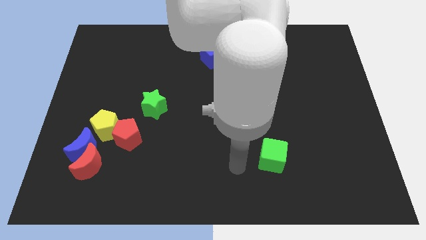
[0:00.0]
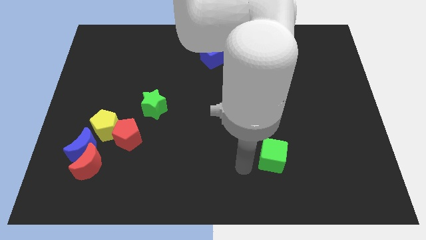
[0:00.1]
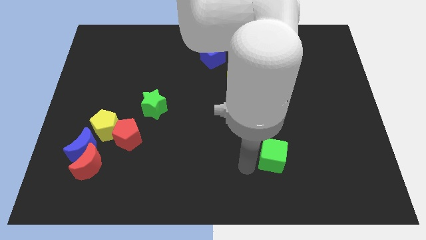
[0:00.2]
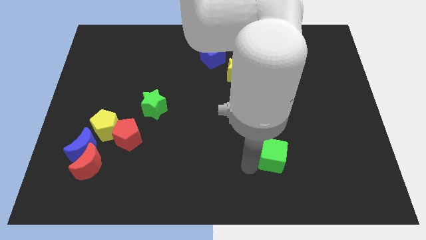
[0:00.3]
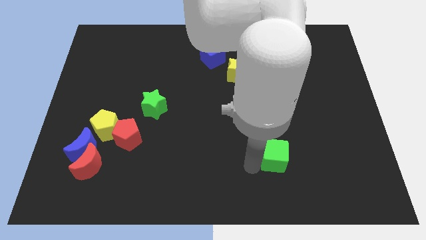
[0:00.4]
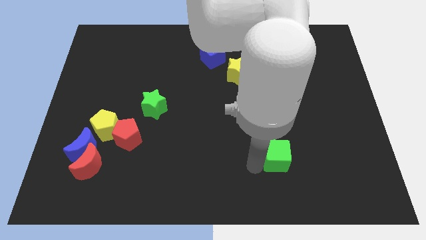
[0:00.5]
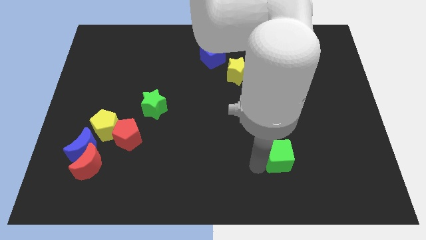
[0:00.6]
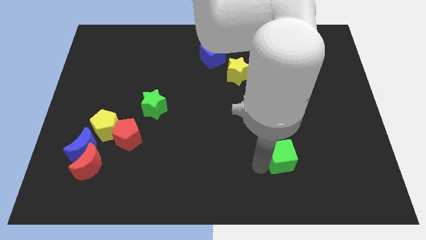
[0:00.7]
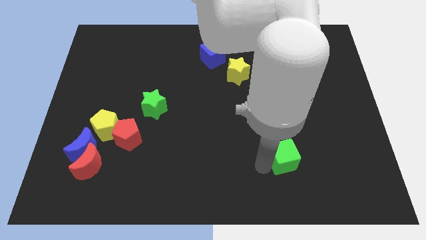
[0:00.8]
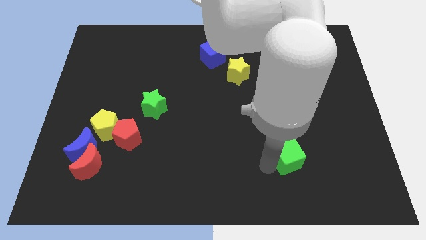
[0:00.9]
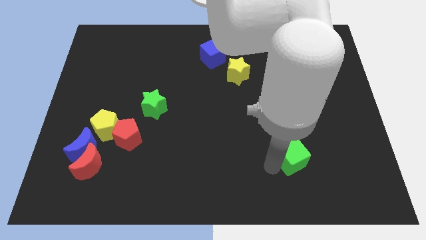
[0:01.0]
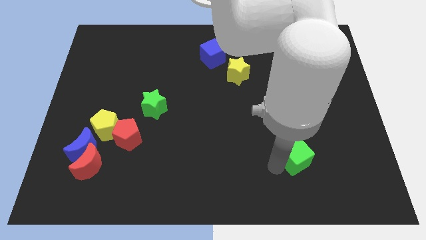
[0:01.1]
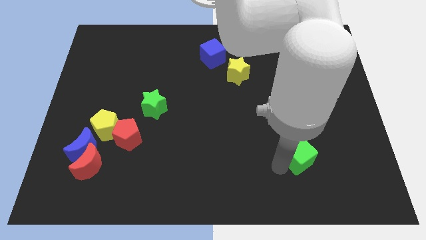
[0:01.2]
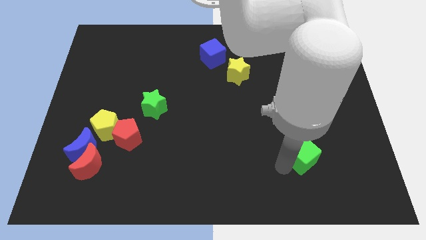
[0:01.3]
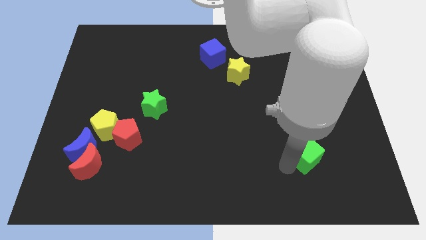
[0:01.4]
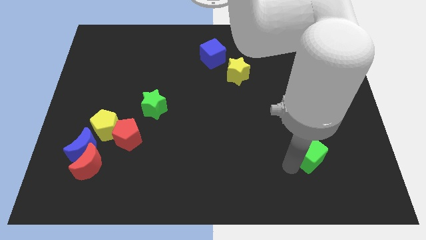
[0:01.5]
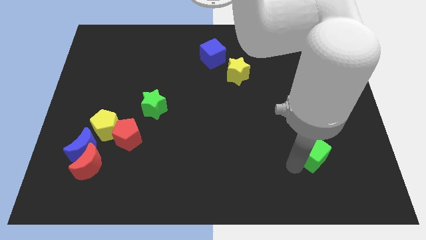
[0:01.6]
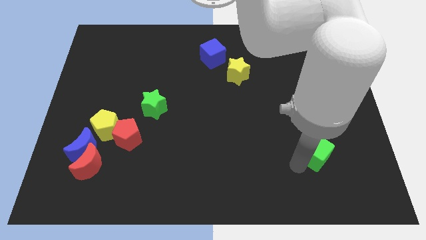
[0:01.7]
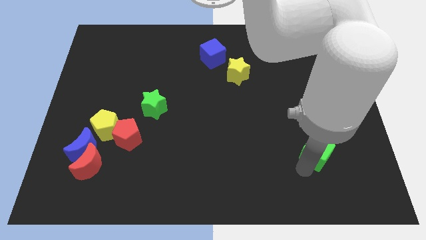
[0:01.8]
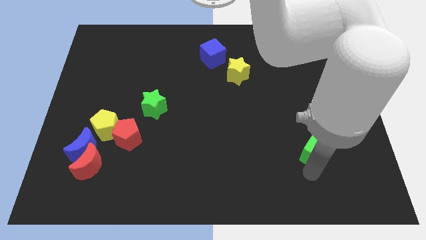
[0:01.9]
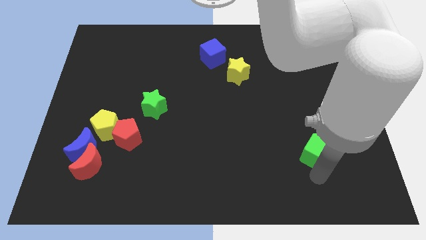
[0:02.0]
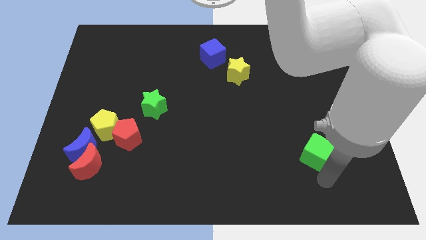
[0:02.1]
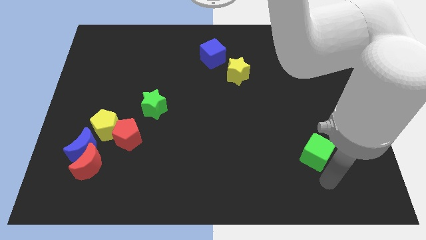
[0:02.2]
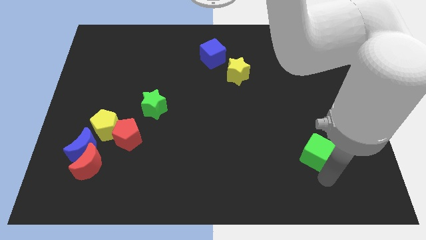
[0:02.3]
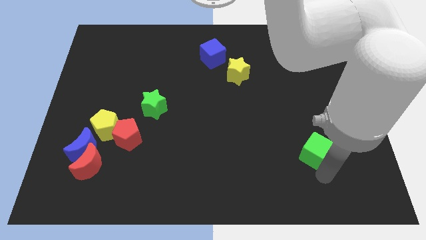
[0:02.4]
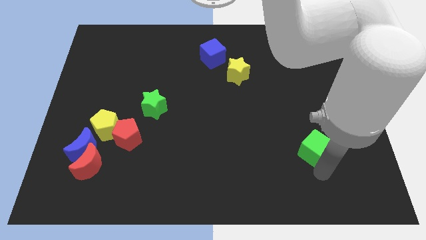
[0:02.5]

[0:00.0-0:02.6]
slightly move the green cube up and then to the right

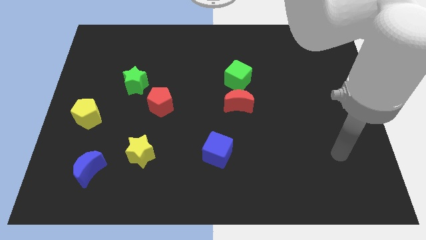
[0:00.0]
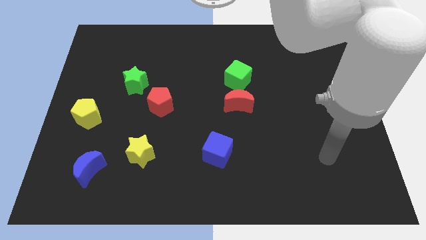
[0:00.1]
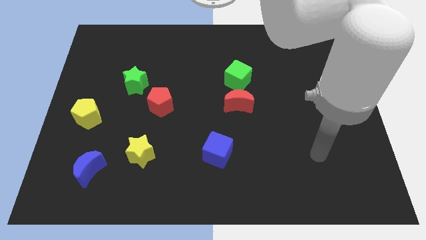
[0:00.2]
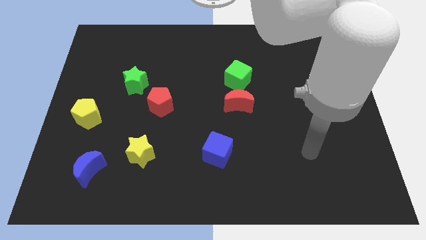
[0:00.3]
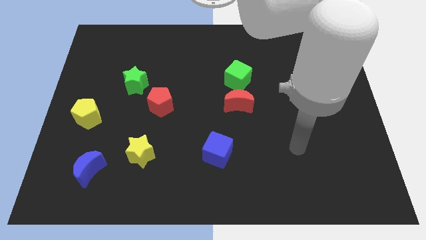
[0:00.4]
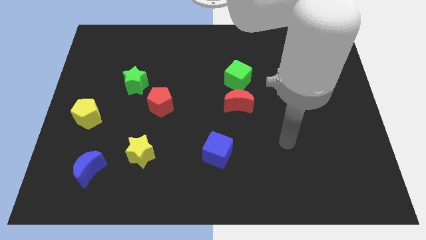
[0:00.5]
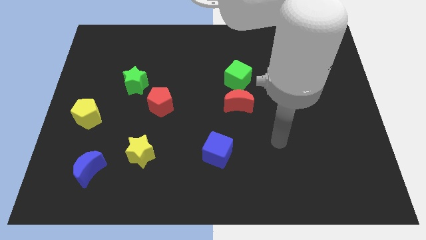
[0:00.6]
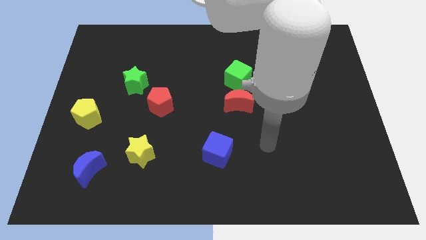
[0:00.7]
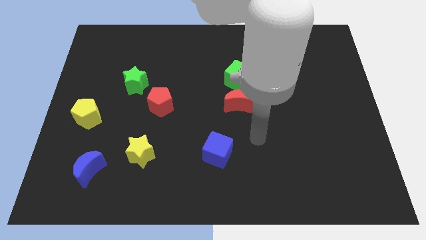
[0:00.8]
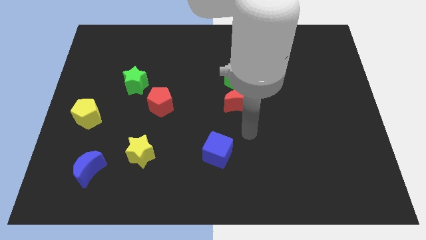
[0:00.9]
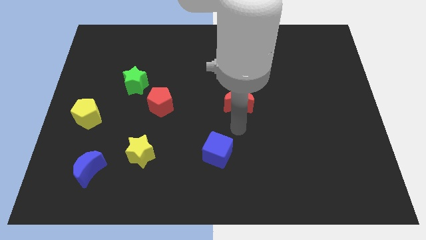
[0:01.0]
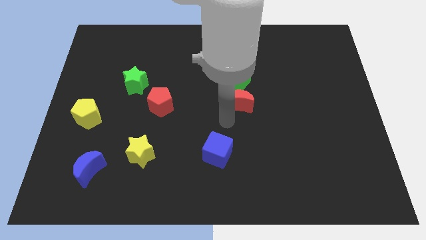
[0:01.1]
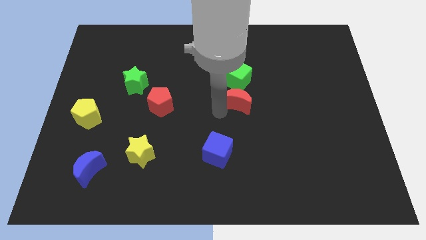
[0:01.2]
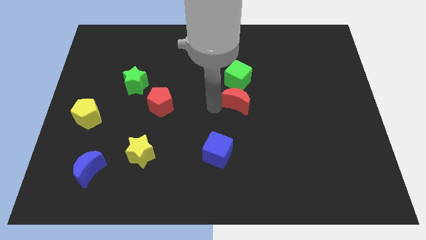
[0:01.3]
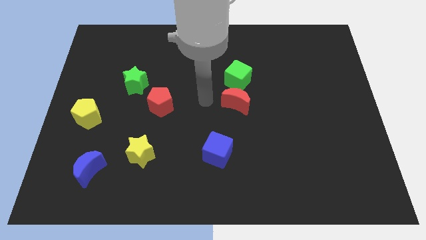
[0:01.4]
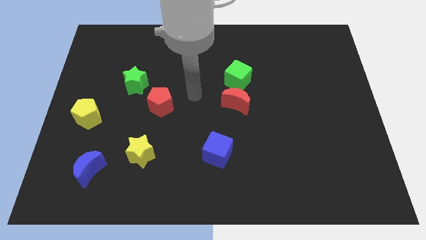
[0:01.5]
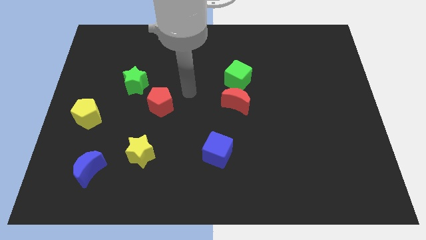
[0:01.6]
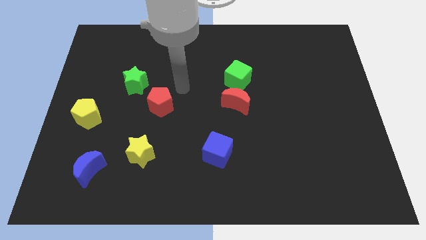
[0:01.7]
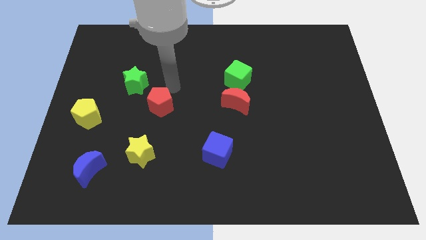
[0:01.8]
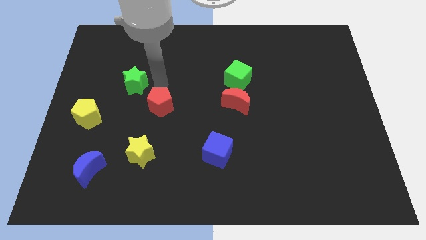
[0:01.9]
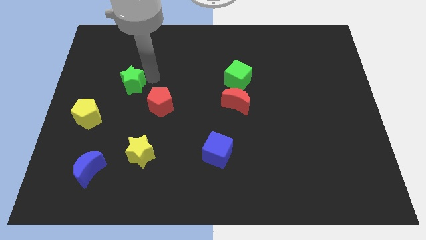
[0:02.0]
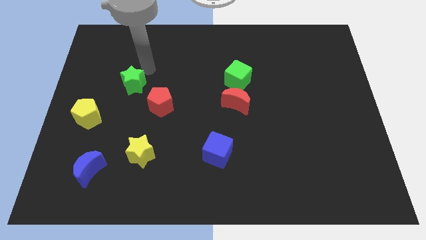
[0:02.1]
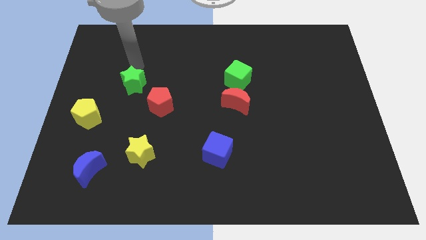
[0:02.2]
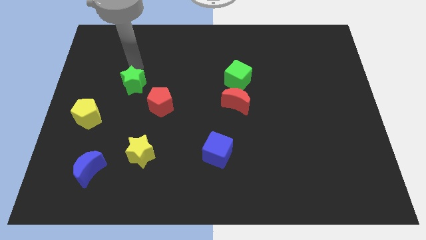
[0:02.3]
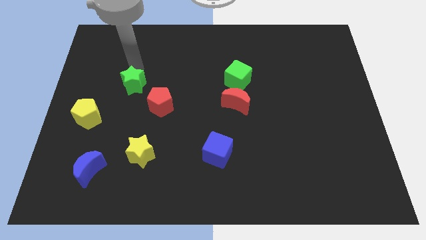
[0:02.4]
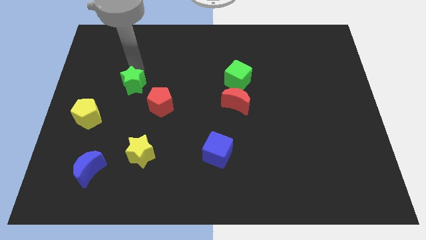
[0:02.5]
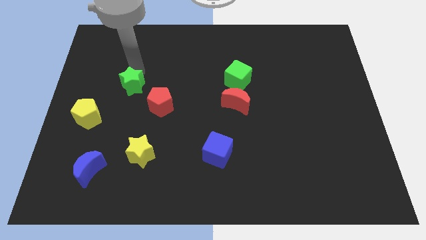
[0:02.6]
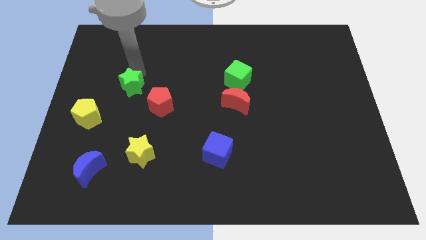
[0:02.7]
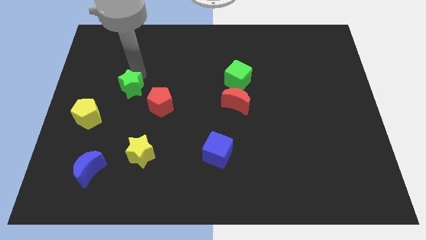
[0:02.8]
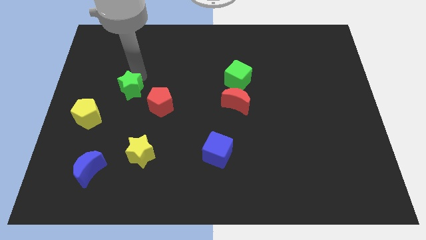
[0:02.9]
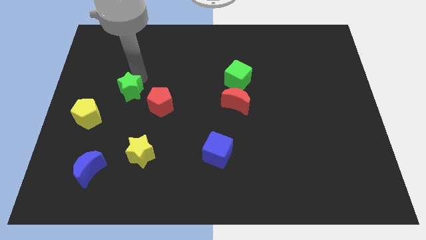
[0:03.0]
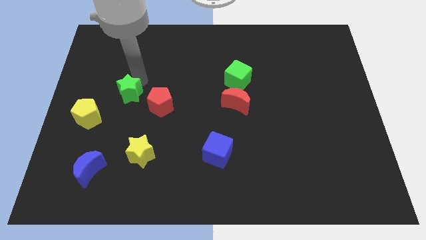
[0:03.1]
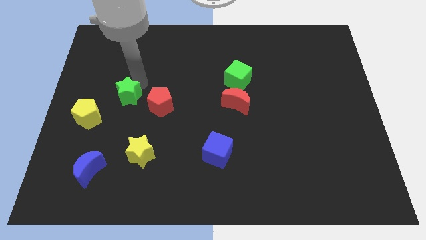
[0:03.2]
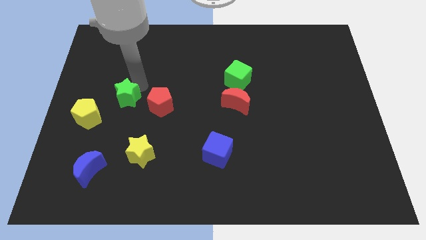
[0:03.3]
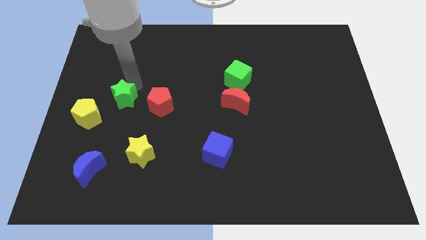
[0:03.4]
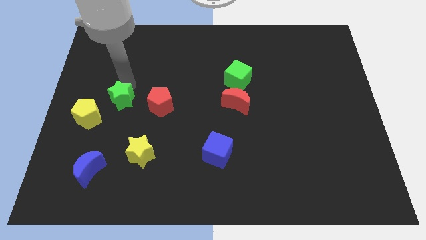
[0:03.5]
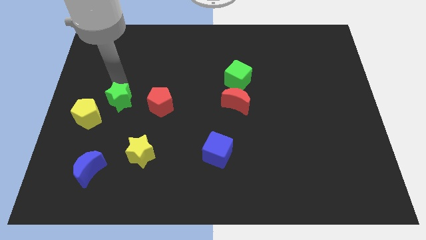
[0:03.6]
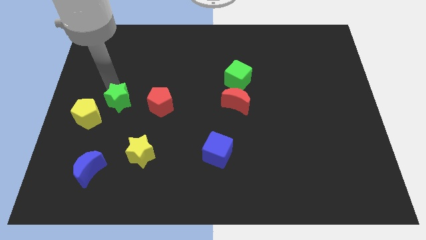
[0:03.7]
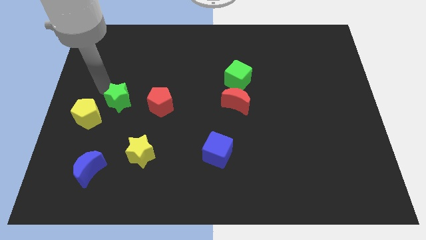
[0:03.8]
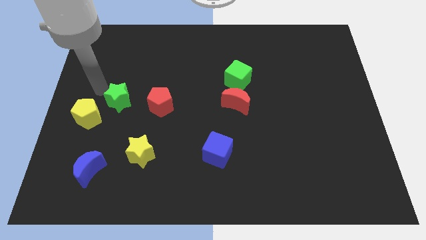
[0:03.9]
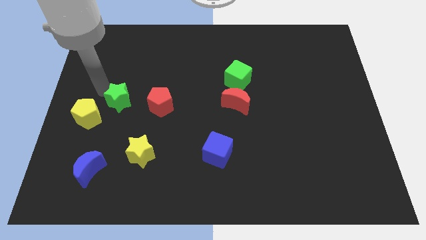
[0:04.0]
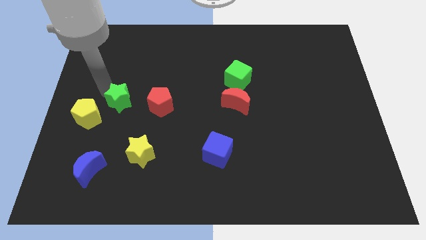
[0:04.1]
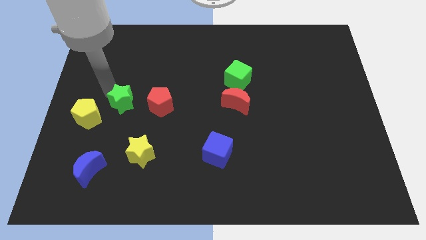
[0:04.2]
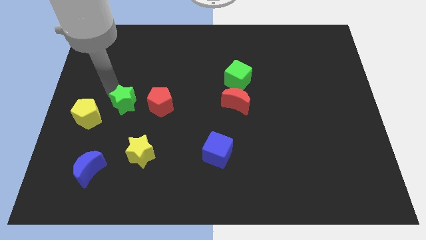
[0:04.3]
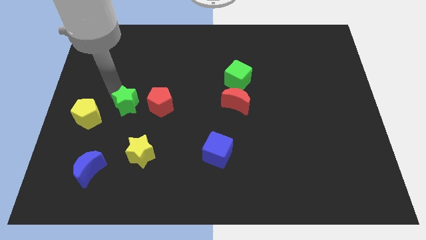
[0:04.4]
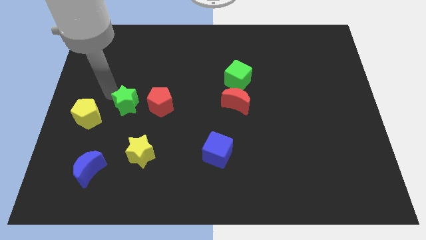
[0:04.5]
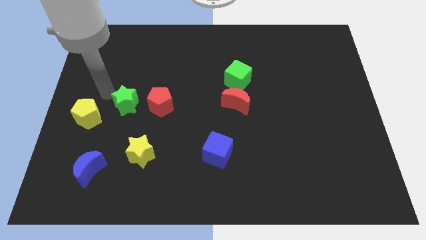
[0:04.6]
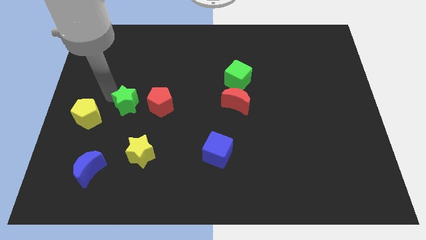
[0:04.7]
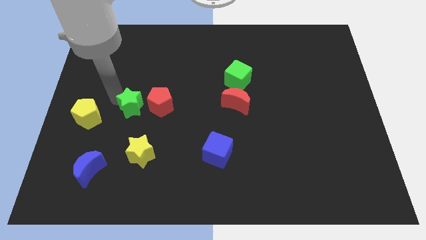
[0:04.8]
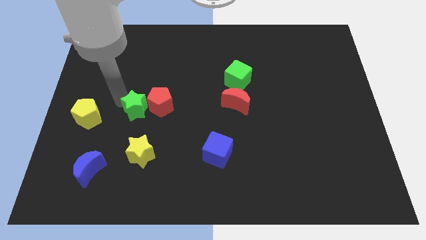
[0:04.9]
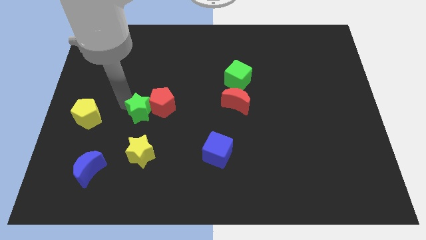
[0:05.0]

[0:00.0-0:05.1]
slide the green star downwards and right a bit

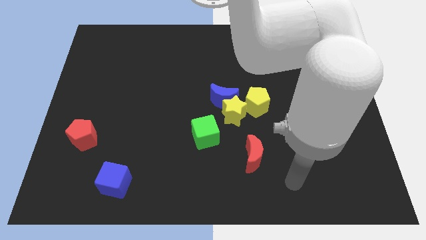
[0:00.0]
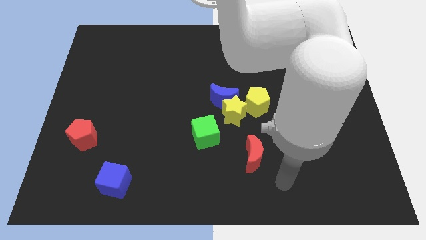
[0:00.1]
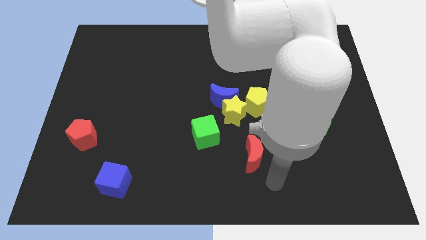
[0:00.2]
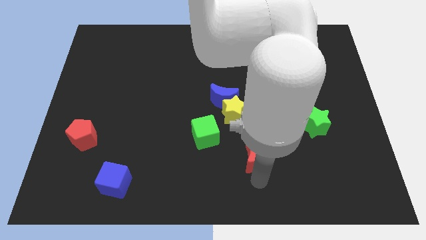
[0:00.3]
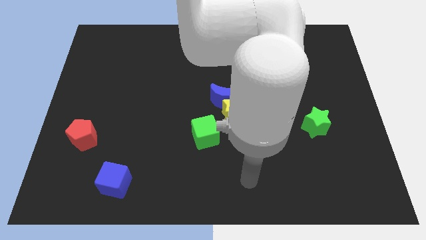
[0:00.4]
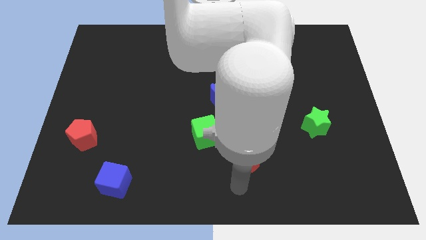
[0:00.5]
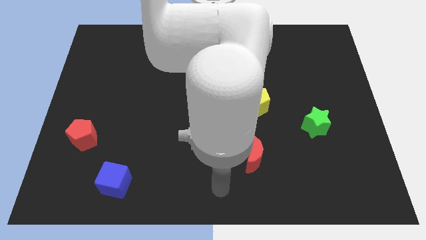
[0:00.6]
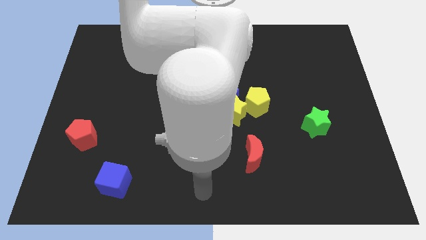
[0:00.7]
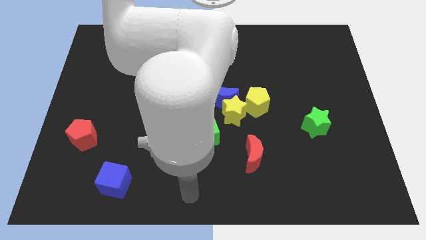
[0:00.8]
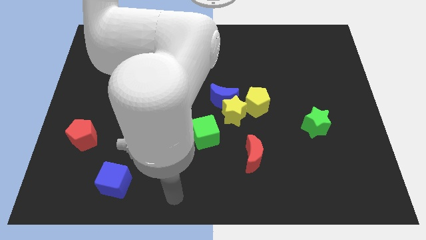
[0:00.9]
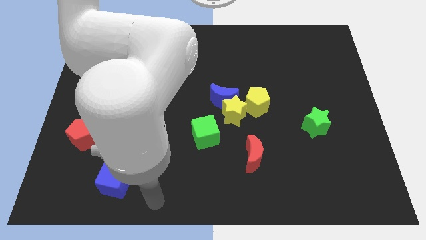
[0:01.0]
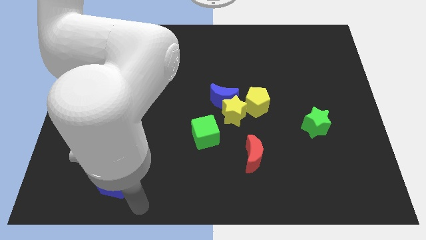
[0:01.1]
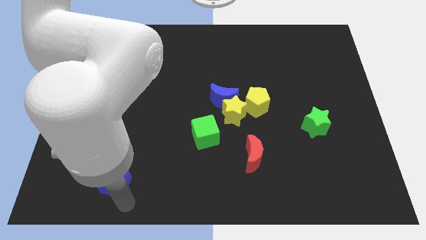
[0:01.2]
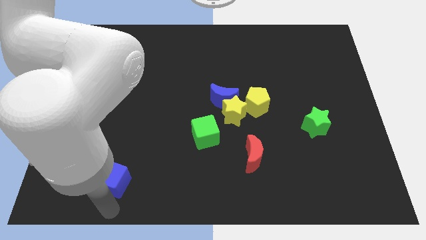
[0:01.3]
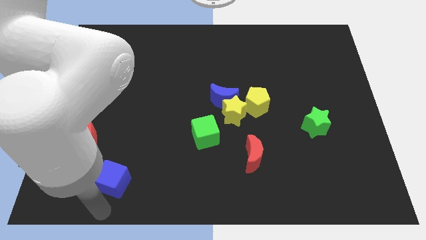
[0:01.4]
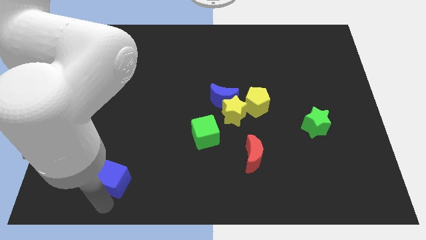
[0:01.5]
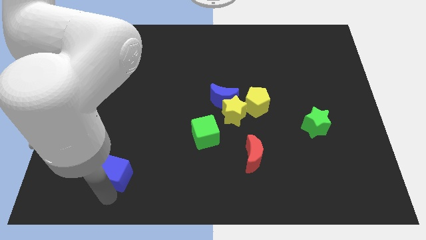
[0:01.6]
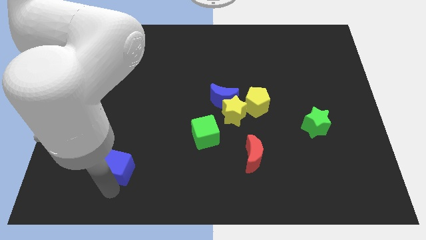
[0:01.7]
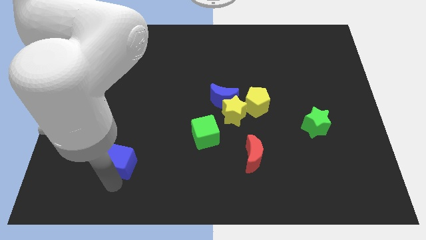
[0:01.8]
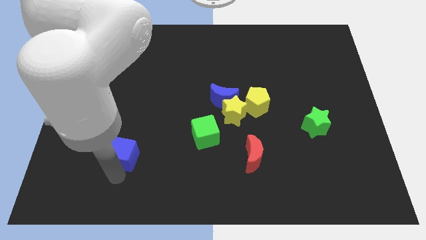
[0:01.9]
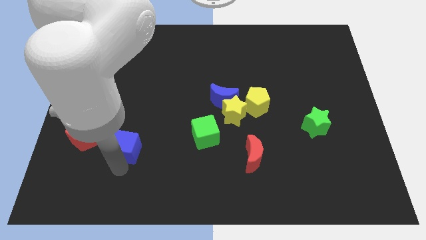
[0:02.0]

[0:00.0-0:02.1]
slightly move the blue cube up
